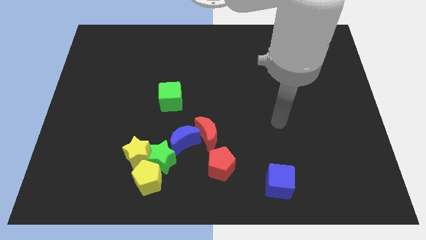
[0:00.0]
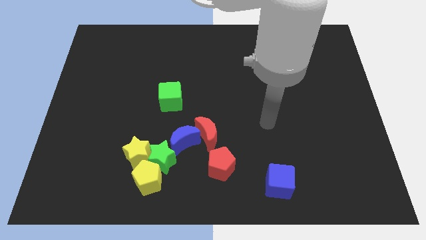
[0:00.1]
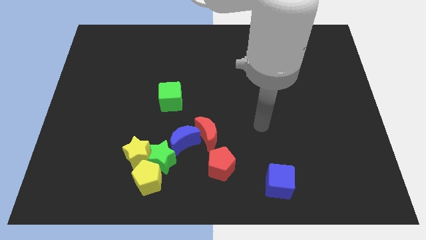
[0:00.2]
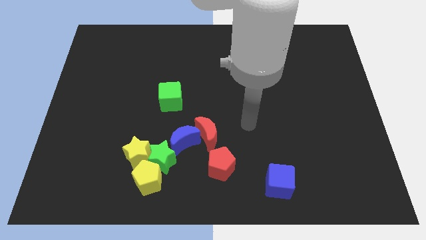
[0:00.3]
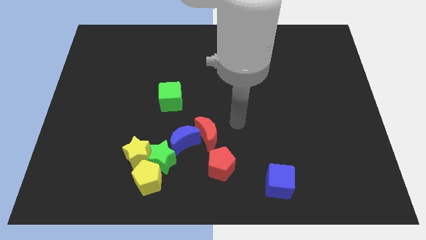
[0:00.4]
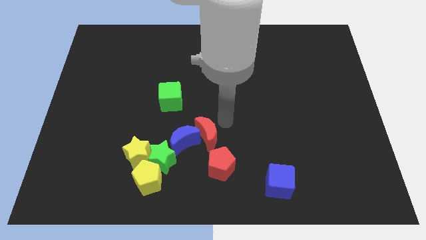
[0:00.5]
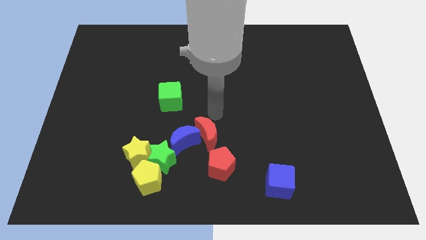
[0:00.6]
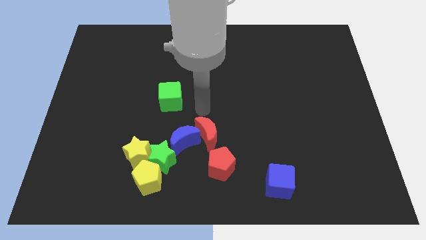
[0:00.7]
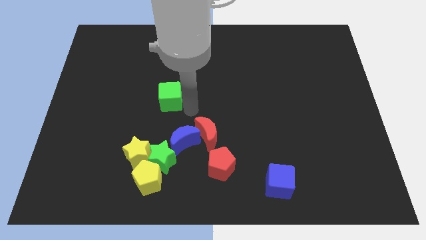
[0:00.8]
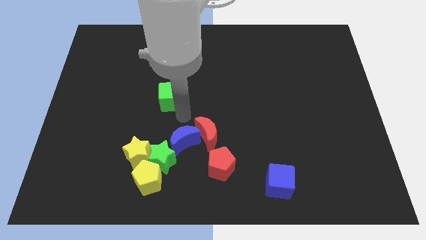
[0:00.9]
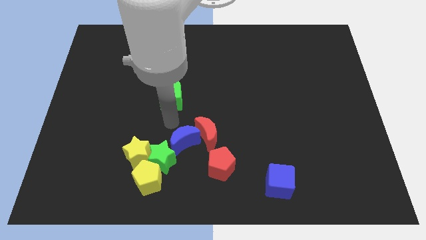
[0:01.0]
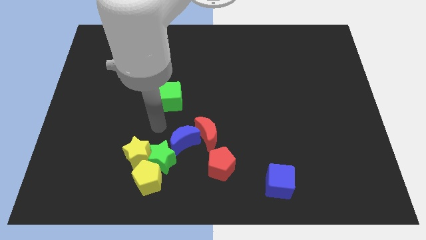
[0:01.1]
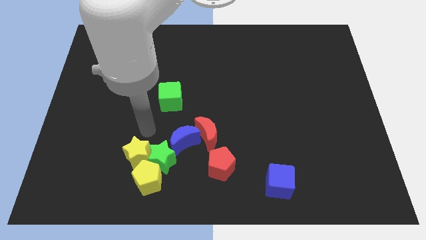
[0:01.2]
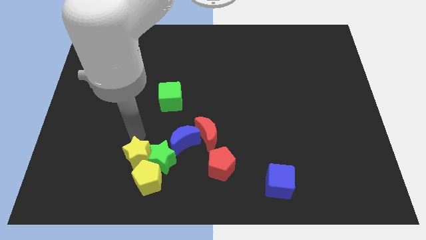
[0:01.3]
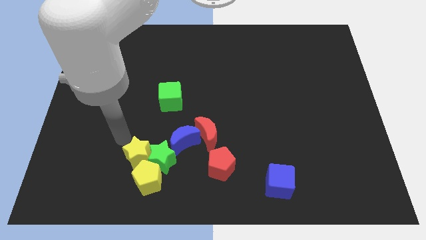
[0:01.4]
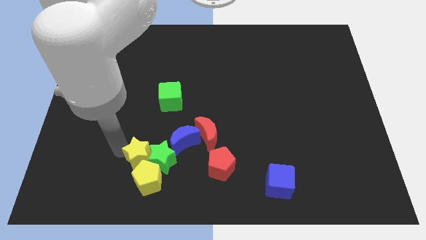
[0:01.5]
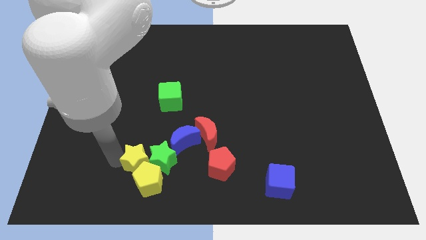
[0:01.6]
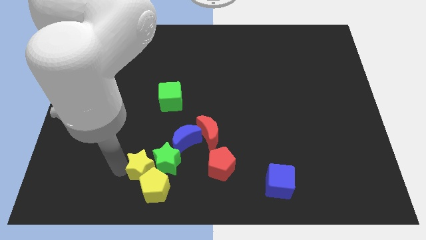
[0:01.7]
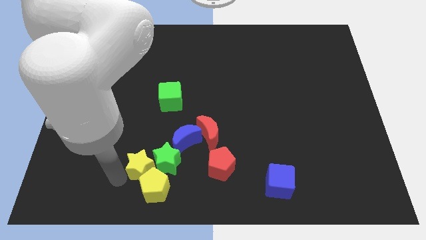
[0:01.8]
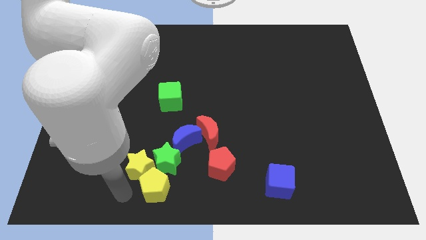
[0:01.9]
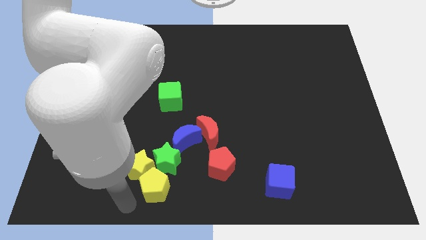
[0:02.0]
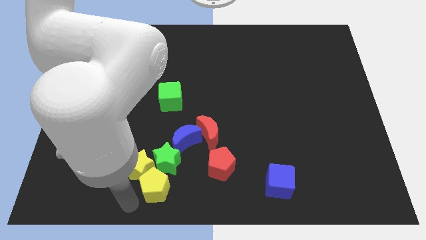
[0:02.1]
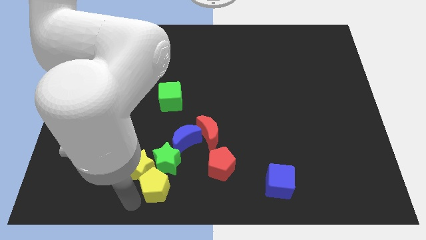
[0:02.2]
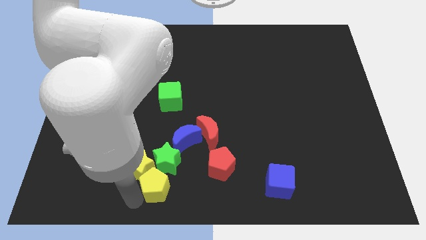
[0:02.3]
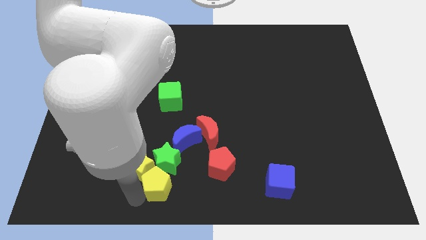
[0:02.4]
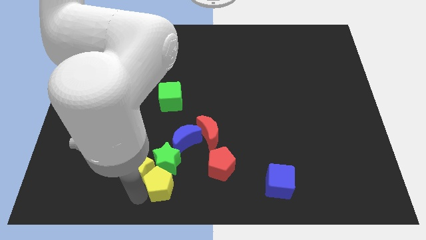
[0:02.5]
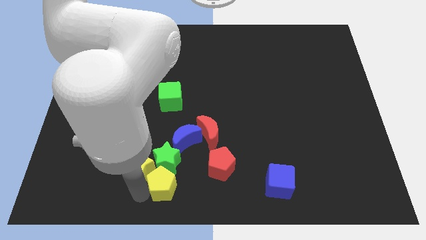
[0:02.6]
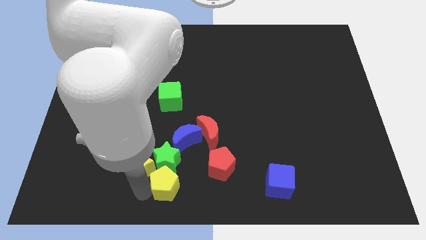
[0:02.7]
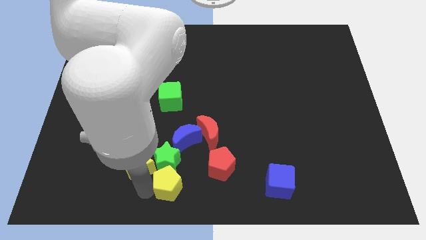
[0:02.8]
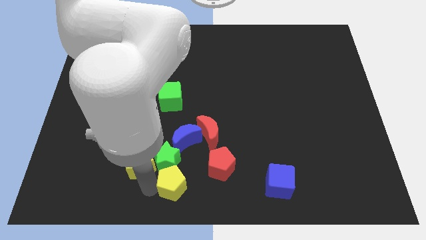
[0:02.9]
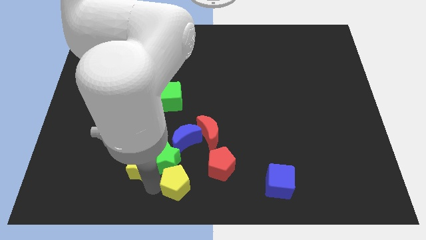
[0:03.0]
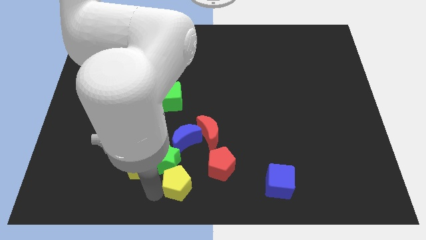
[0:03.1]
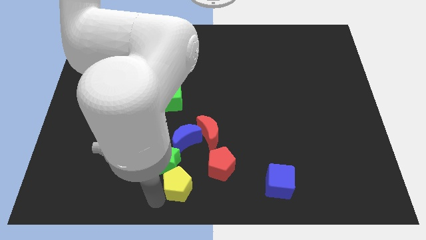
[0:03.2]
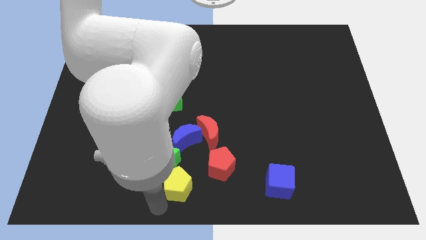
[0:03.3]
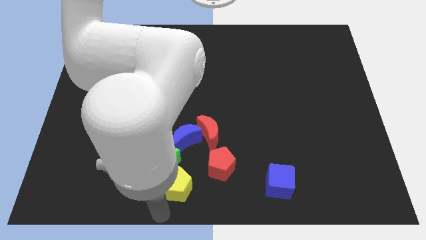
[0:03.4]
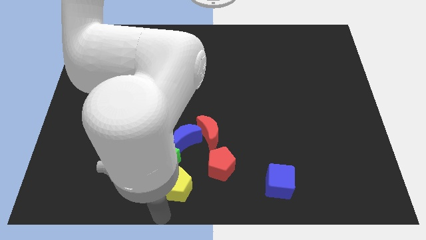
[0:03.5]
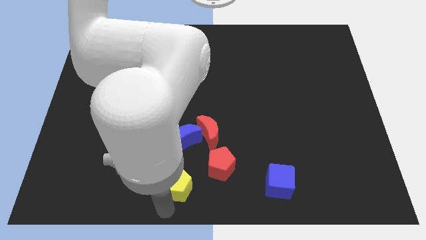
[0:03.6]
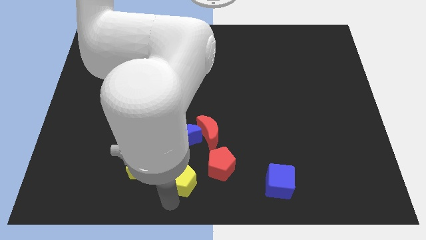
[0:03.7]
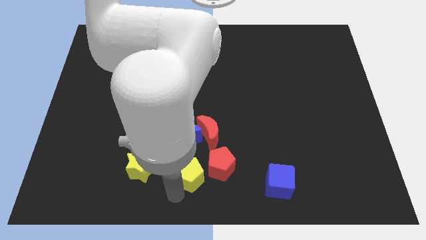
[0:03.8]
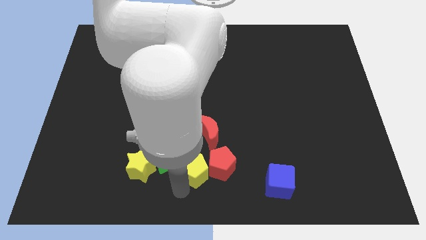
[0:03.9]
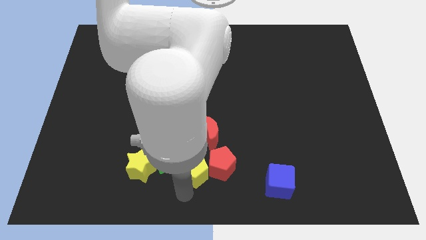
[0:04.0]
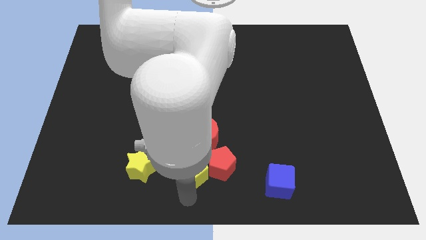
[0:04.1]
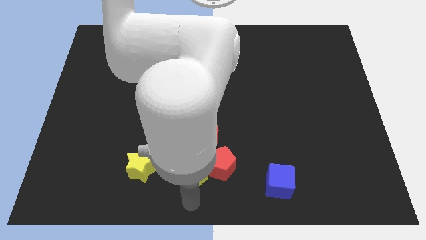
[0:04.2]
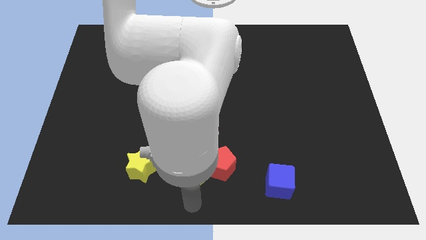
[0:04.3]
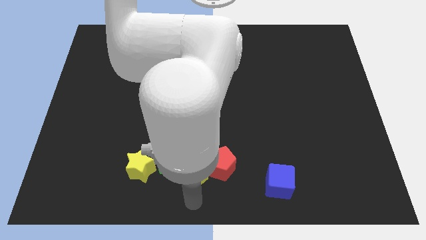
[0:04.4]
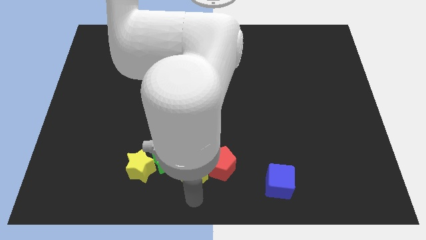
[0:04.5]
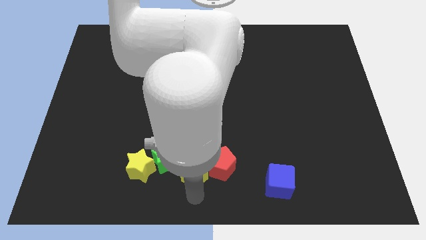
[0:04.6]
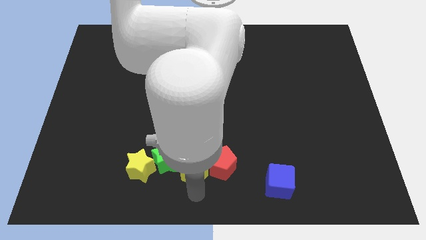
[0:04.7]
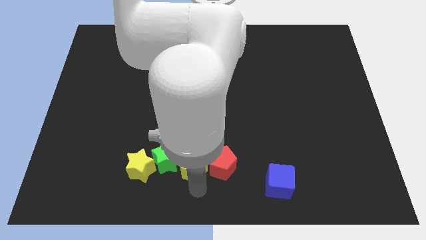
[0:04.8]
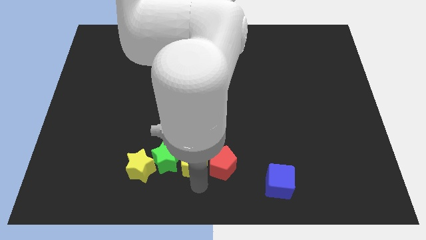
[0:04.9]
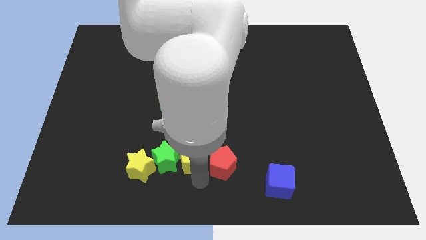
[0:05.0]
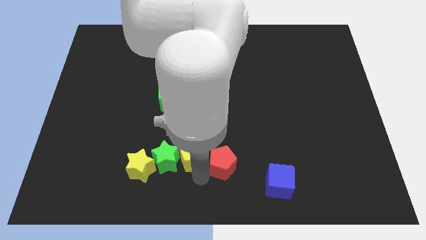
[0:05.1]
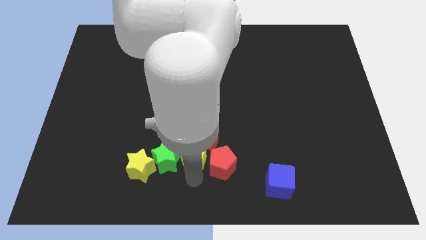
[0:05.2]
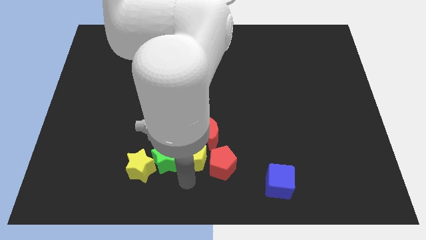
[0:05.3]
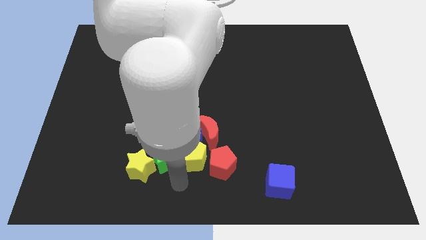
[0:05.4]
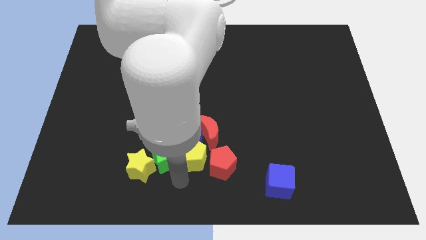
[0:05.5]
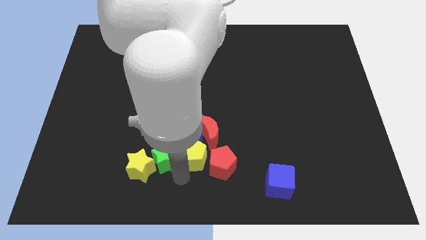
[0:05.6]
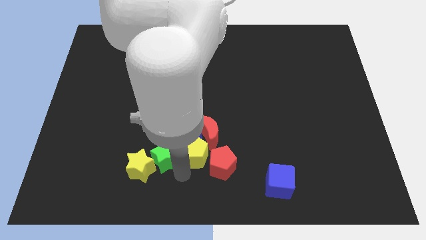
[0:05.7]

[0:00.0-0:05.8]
move the yellow pentagon close to the red moon
